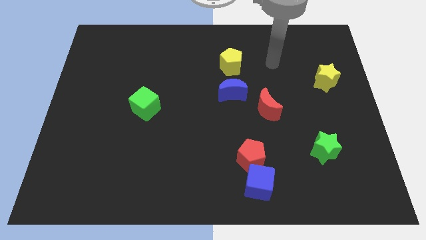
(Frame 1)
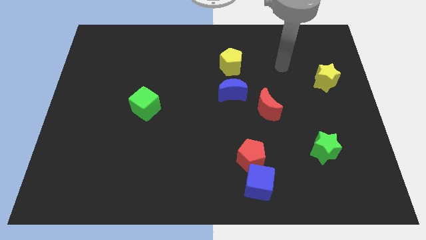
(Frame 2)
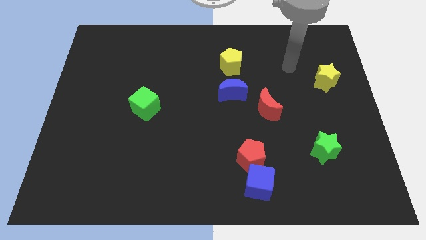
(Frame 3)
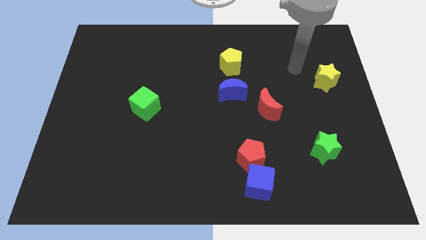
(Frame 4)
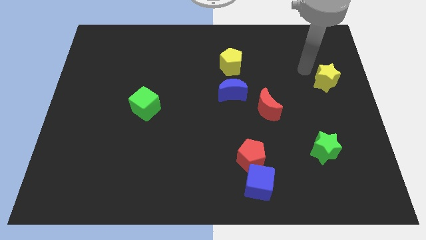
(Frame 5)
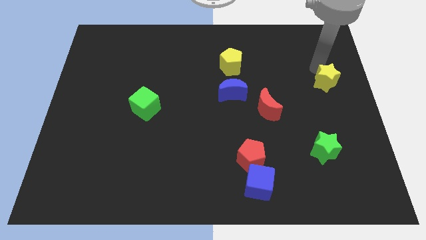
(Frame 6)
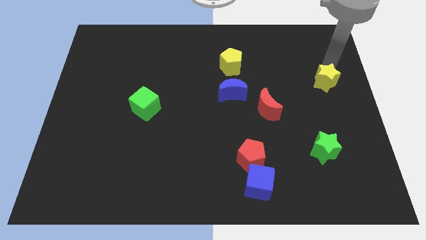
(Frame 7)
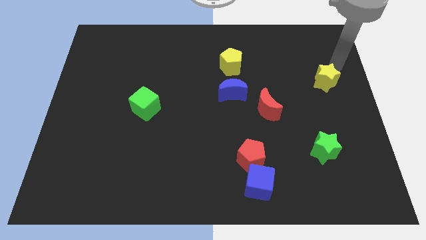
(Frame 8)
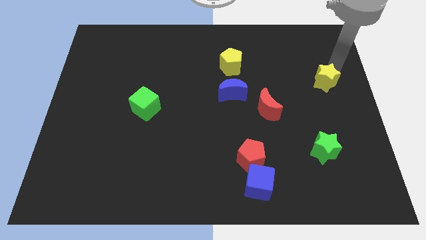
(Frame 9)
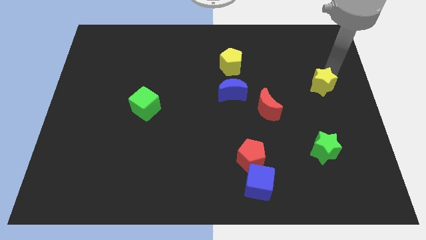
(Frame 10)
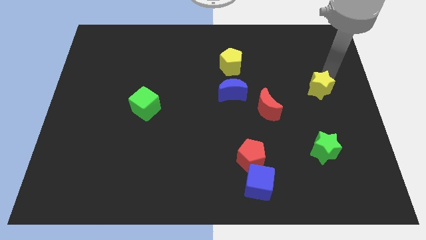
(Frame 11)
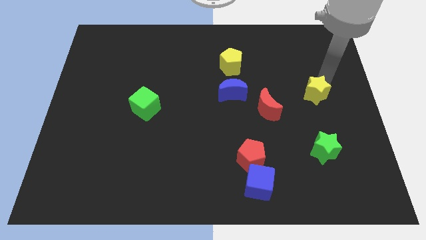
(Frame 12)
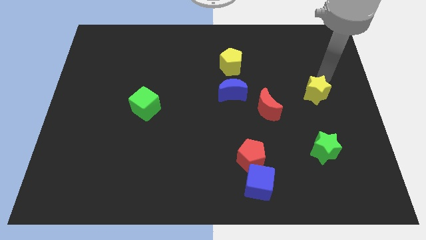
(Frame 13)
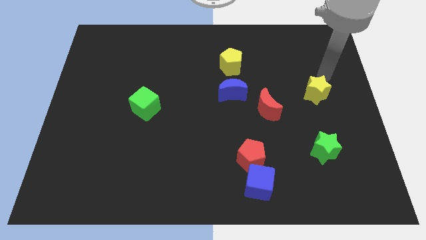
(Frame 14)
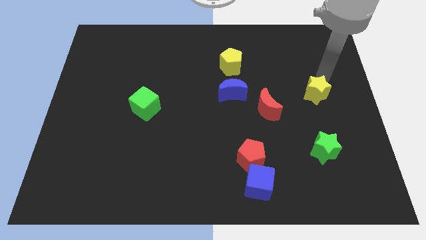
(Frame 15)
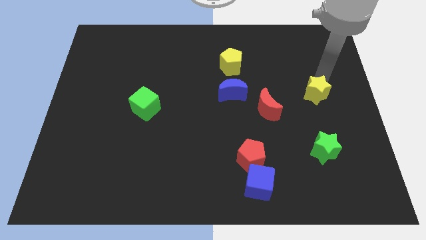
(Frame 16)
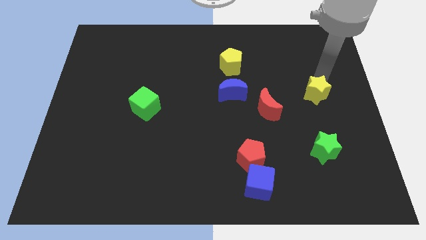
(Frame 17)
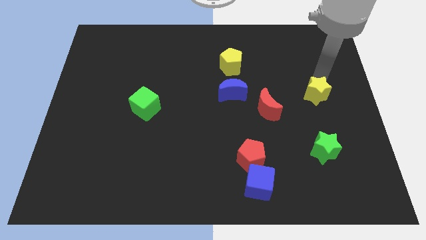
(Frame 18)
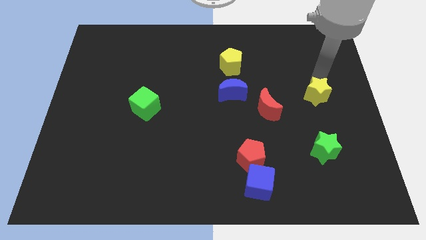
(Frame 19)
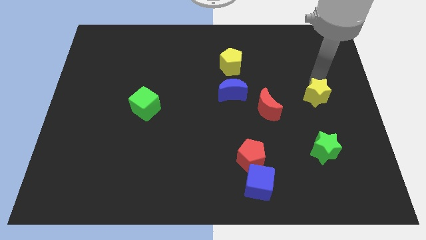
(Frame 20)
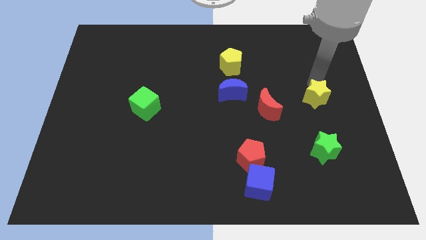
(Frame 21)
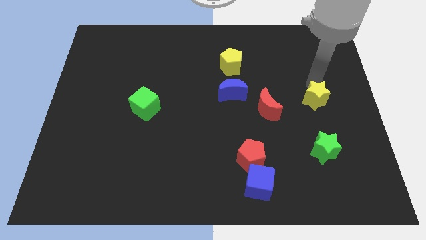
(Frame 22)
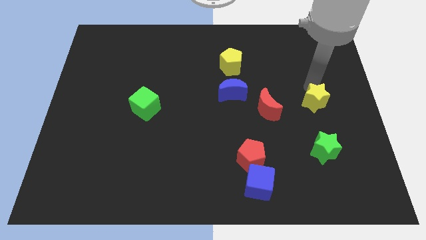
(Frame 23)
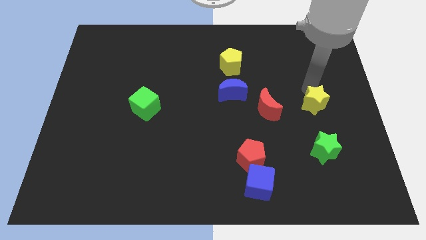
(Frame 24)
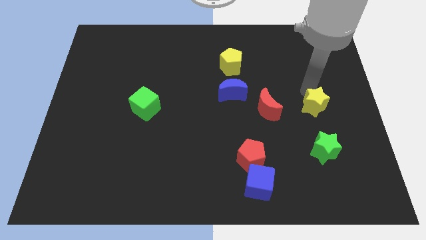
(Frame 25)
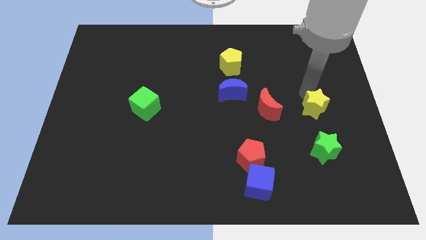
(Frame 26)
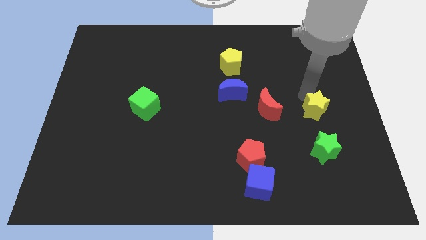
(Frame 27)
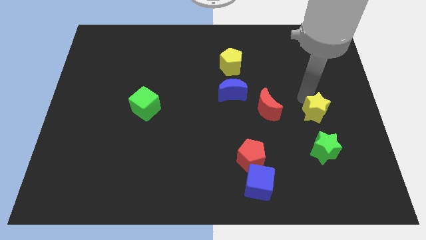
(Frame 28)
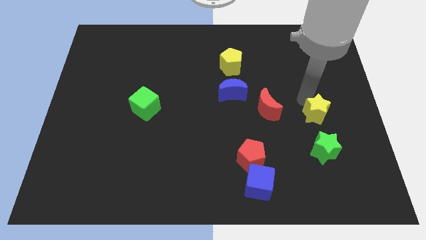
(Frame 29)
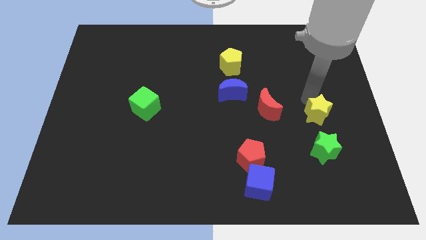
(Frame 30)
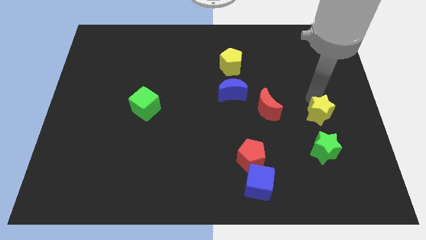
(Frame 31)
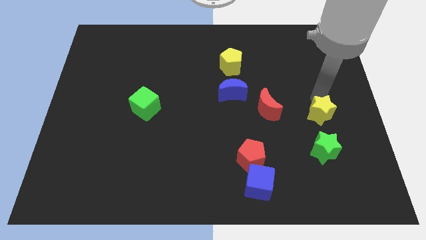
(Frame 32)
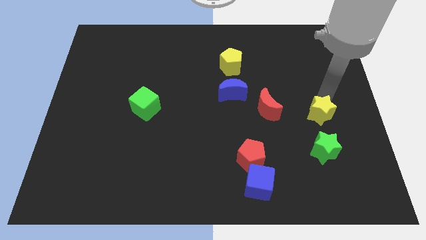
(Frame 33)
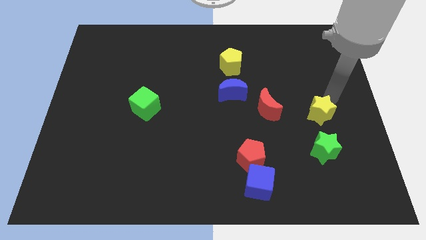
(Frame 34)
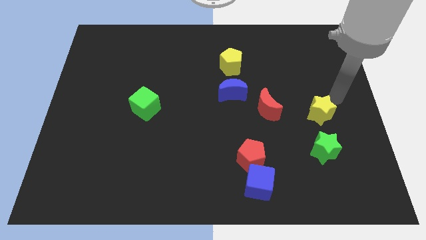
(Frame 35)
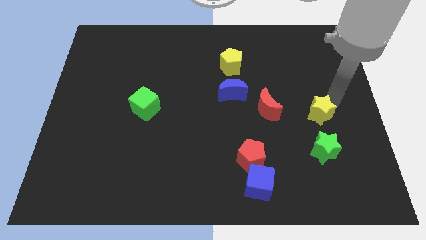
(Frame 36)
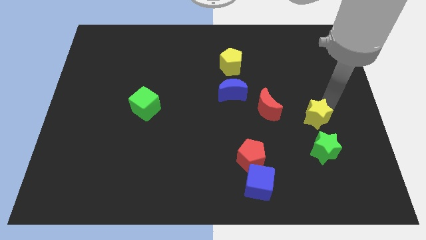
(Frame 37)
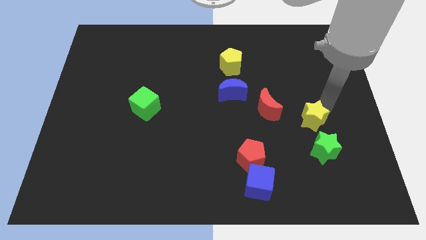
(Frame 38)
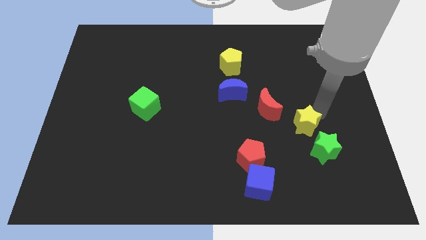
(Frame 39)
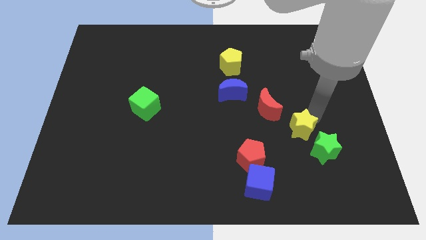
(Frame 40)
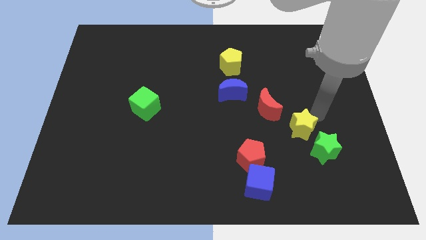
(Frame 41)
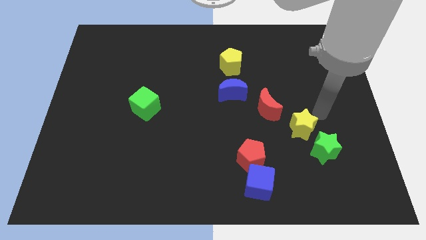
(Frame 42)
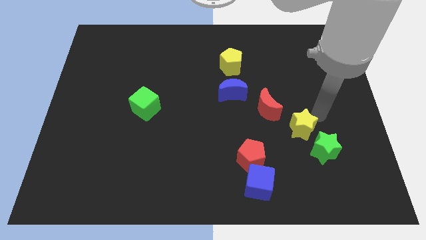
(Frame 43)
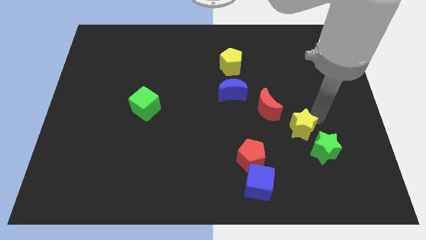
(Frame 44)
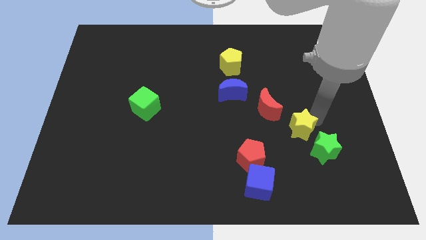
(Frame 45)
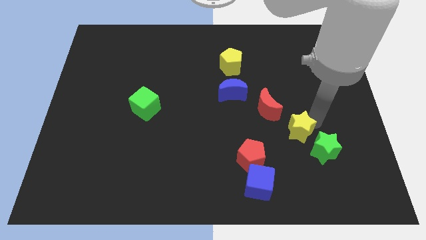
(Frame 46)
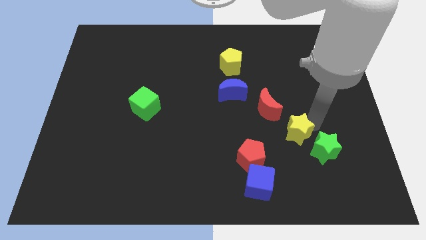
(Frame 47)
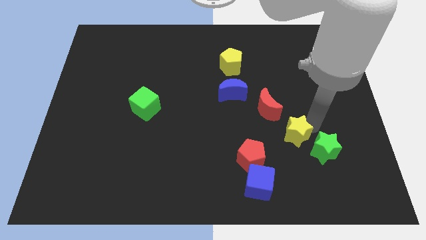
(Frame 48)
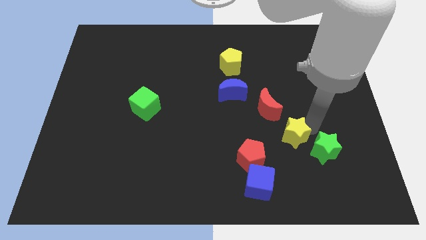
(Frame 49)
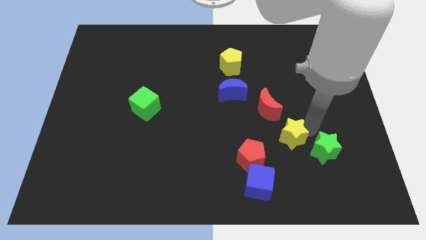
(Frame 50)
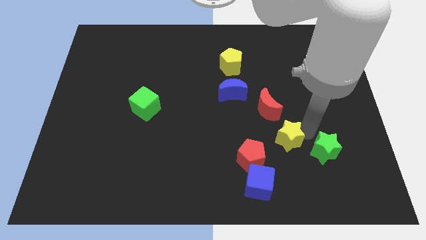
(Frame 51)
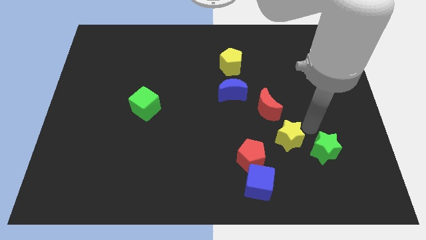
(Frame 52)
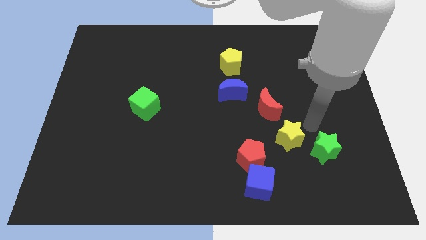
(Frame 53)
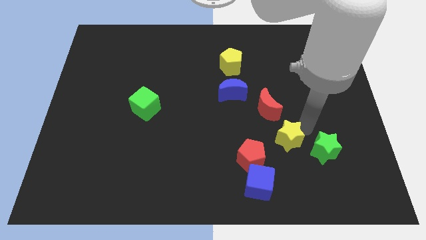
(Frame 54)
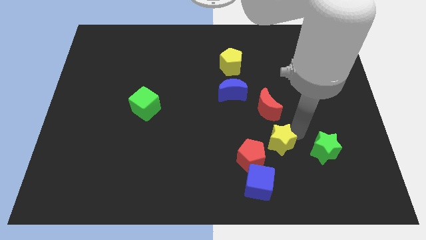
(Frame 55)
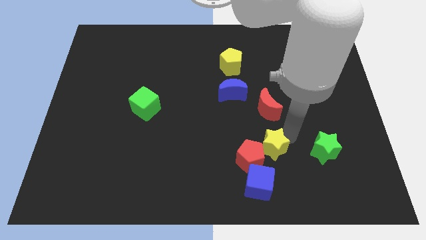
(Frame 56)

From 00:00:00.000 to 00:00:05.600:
push the yellow star next to the red pentagon

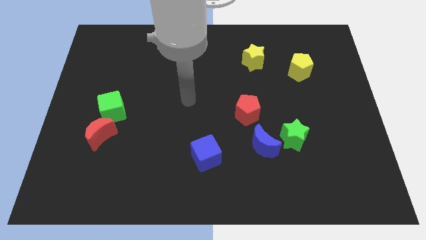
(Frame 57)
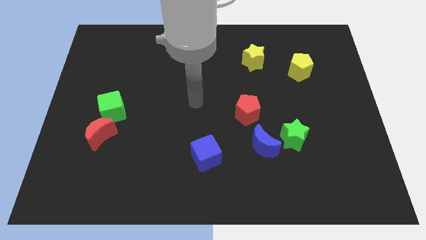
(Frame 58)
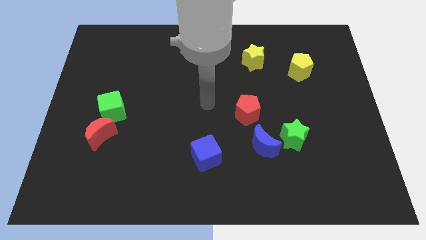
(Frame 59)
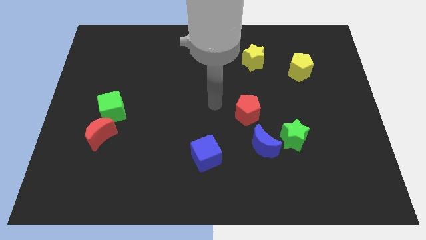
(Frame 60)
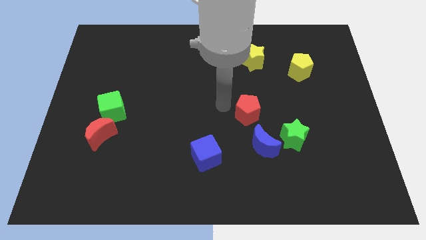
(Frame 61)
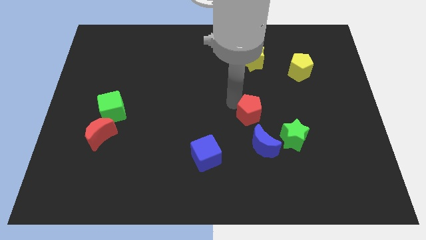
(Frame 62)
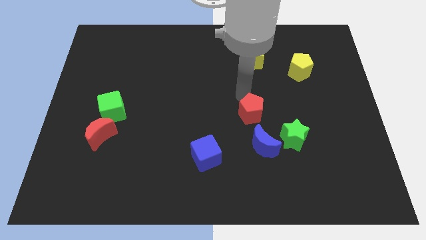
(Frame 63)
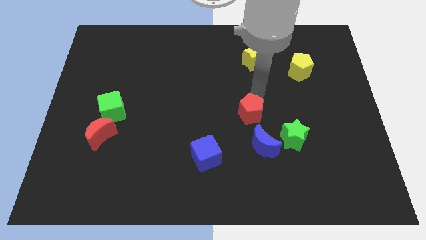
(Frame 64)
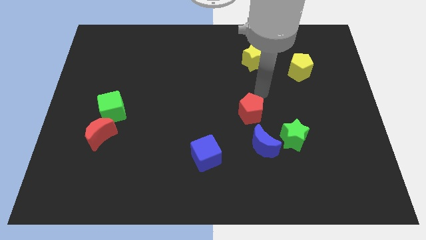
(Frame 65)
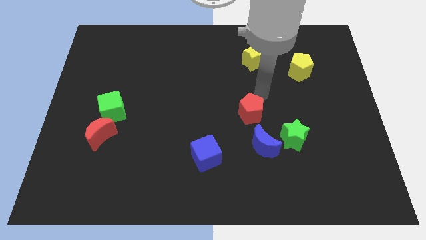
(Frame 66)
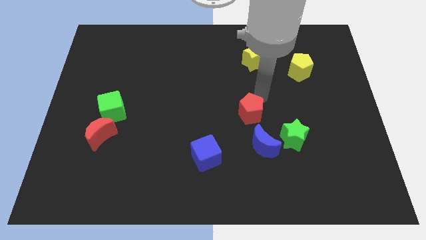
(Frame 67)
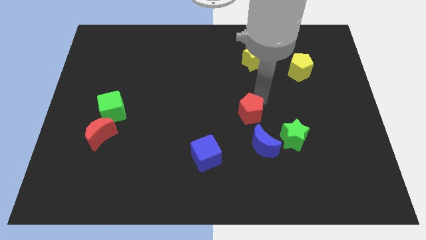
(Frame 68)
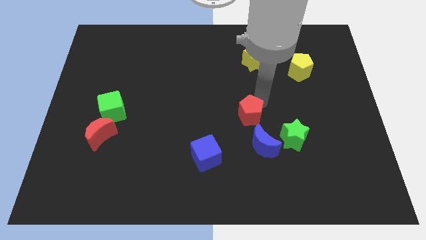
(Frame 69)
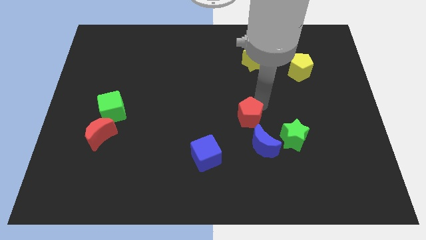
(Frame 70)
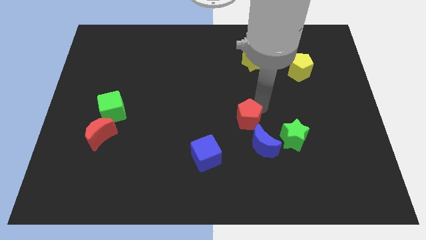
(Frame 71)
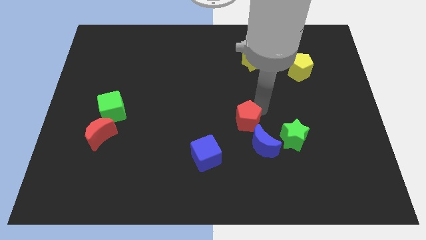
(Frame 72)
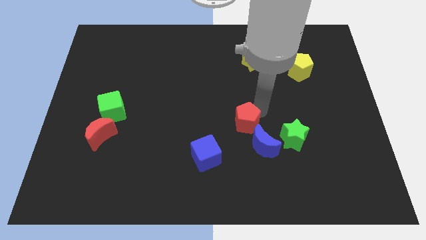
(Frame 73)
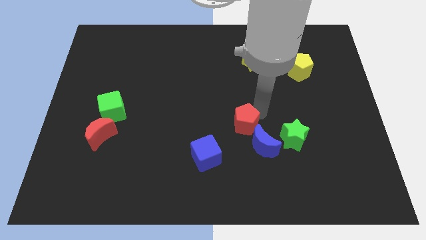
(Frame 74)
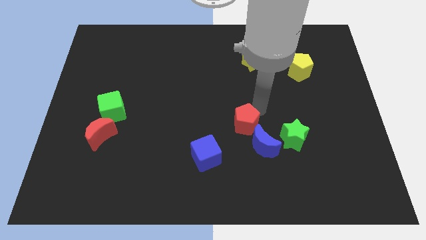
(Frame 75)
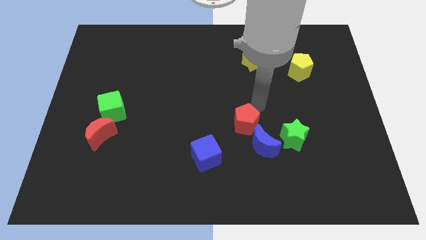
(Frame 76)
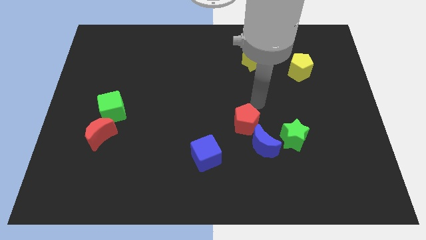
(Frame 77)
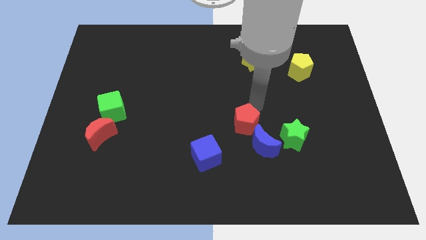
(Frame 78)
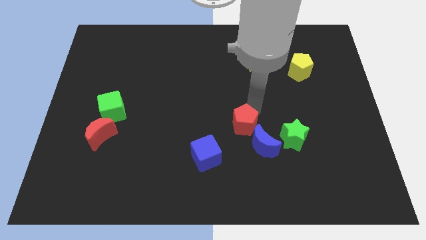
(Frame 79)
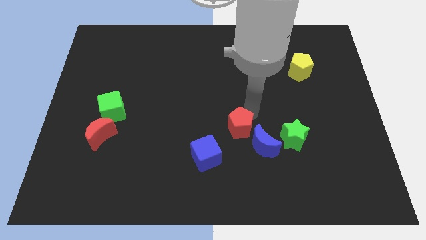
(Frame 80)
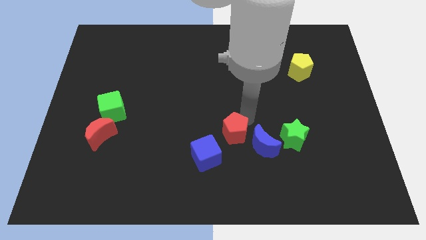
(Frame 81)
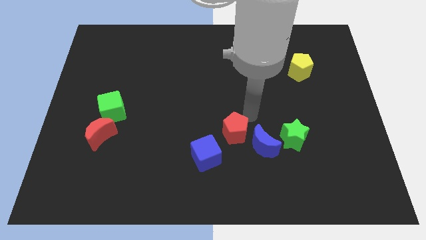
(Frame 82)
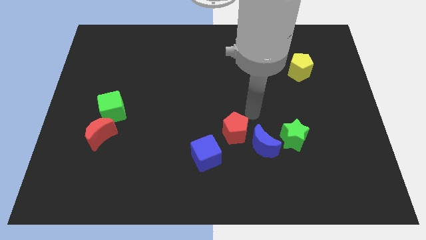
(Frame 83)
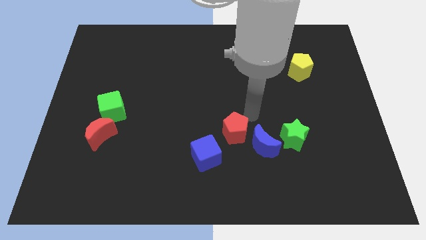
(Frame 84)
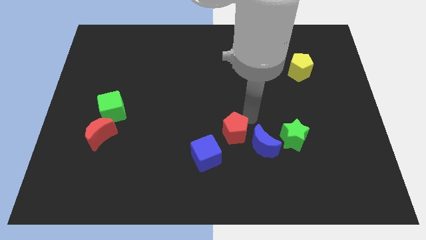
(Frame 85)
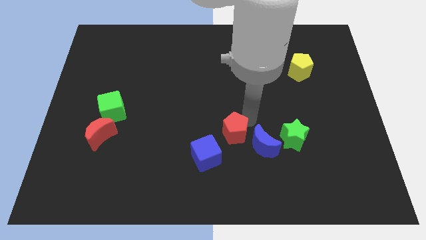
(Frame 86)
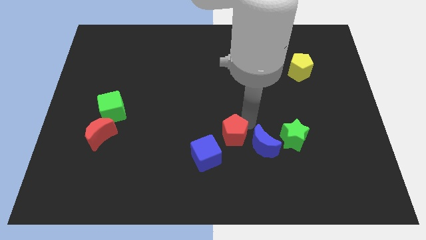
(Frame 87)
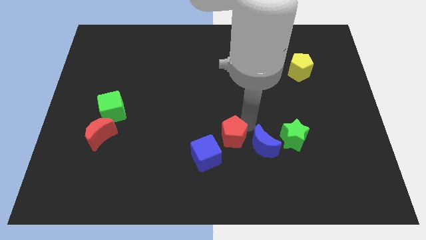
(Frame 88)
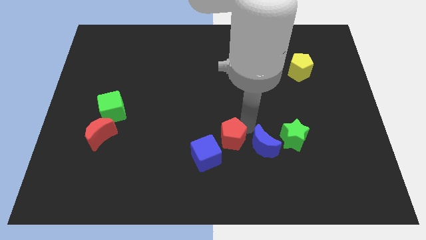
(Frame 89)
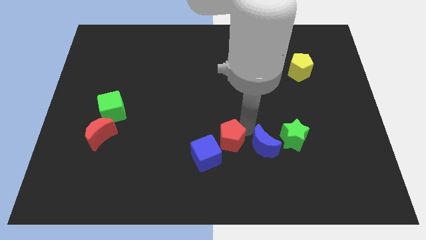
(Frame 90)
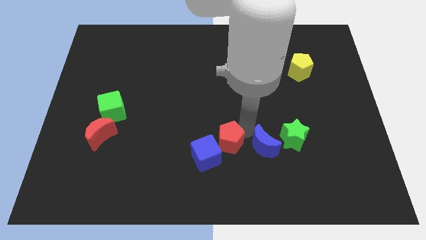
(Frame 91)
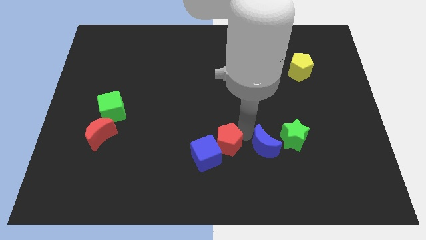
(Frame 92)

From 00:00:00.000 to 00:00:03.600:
push the red pentagon next to the blue cube
